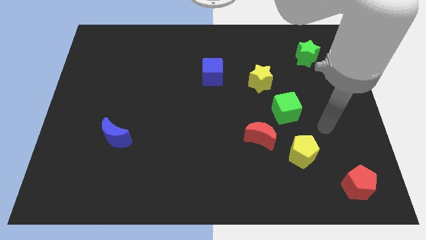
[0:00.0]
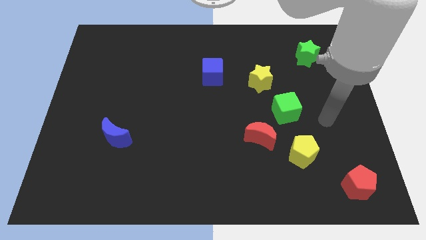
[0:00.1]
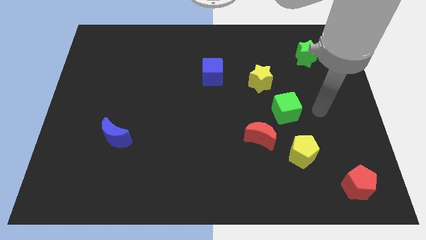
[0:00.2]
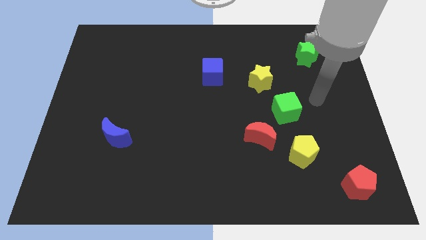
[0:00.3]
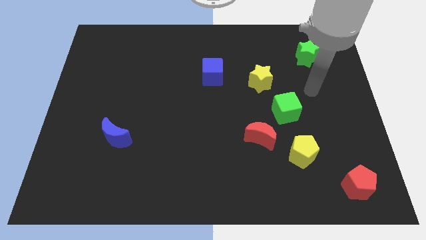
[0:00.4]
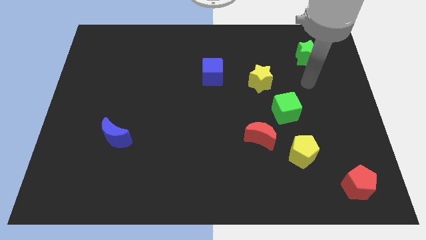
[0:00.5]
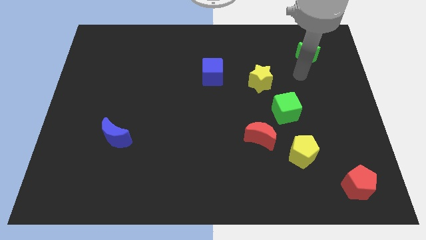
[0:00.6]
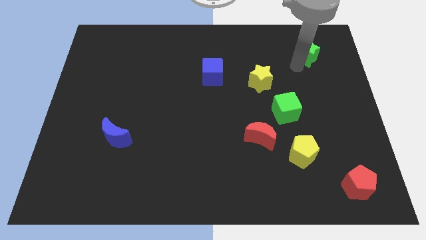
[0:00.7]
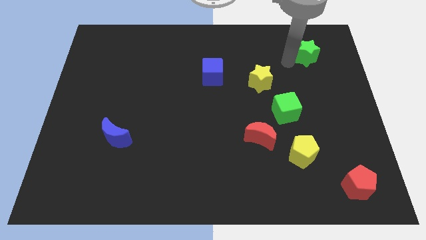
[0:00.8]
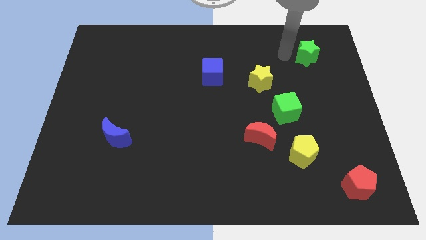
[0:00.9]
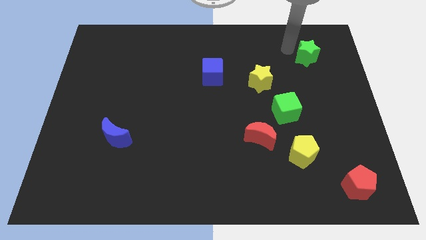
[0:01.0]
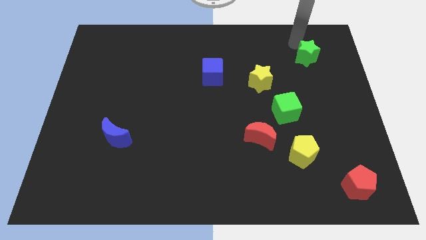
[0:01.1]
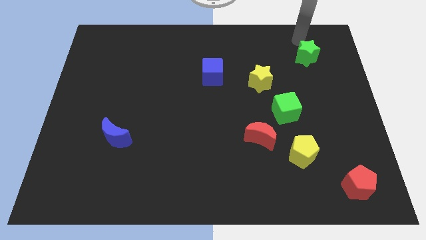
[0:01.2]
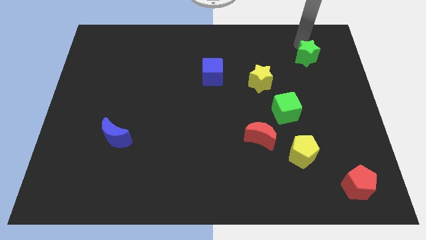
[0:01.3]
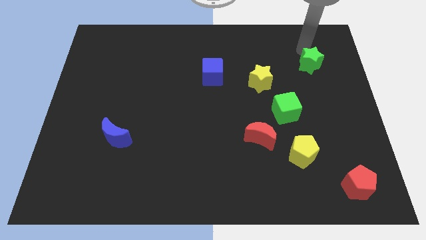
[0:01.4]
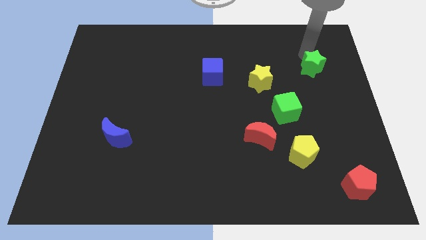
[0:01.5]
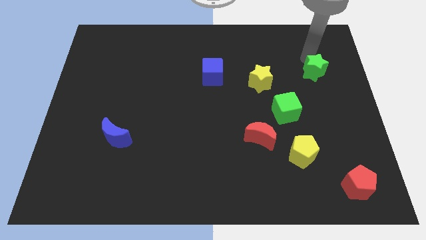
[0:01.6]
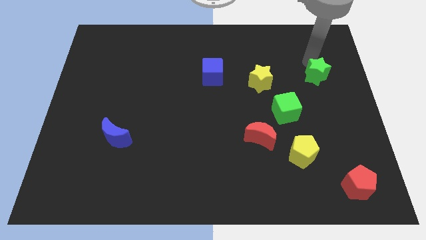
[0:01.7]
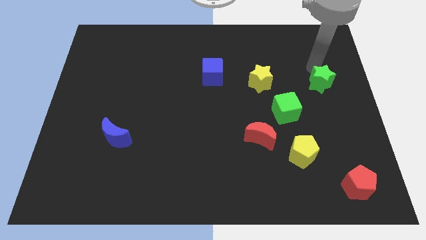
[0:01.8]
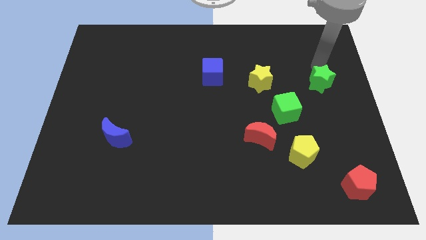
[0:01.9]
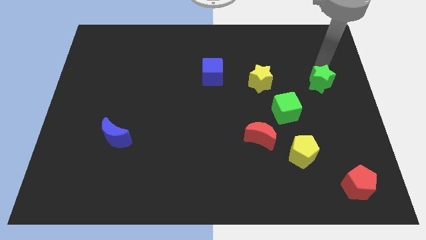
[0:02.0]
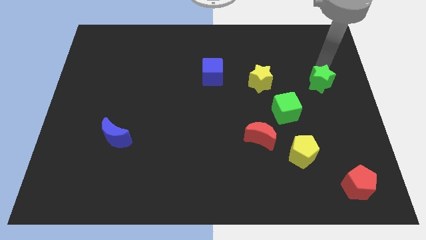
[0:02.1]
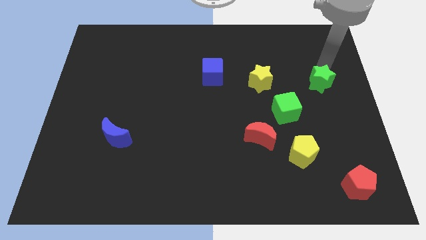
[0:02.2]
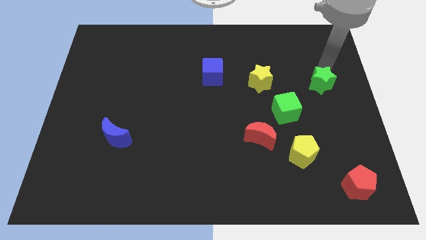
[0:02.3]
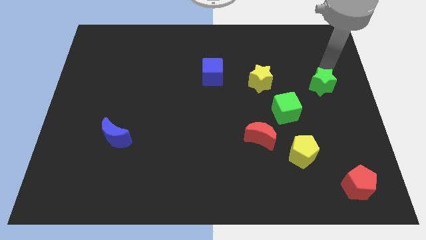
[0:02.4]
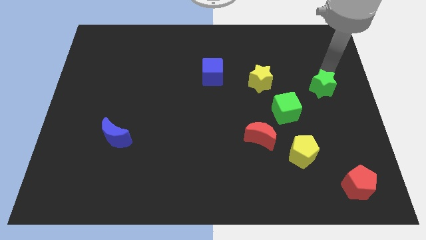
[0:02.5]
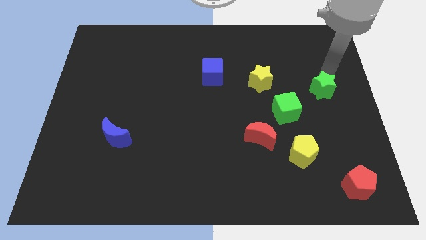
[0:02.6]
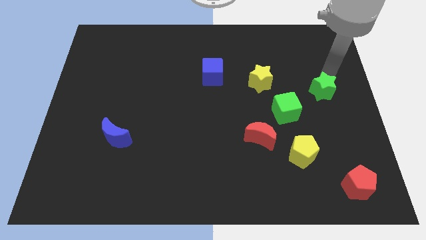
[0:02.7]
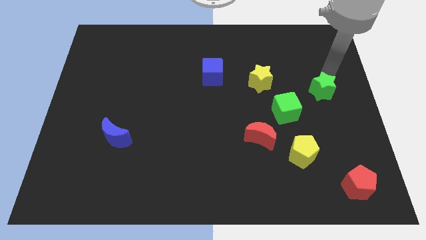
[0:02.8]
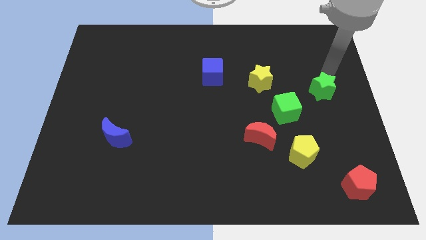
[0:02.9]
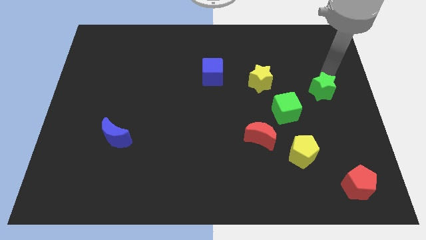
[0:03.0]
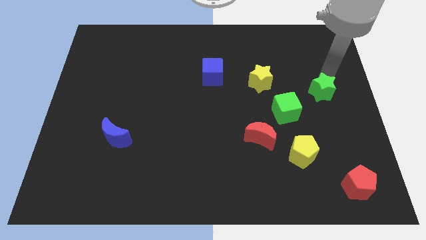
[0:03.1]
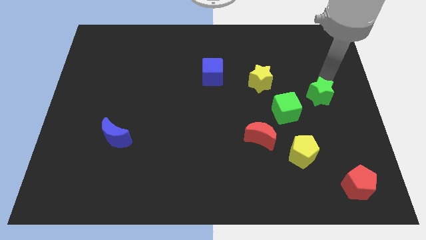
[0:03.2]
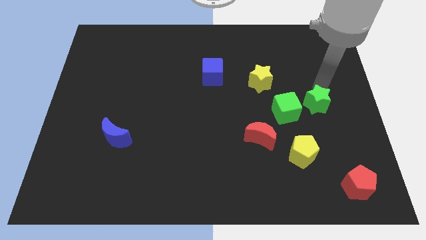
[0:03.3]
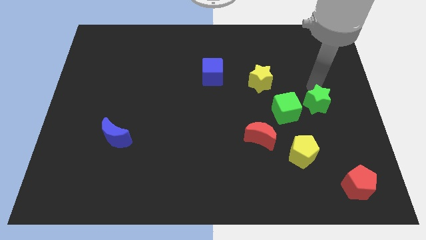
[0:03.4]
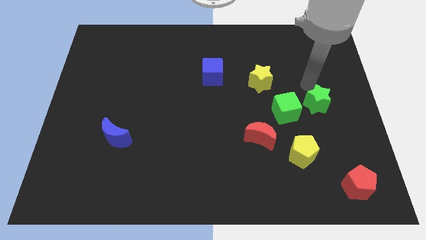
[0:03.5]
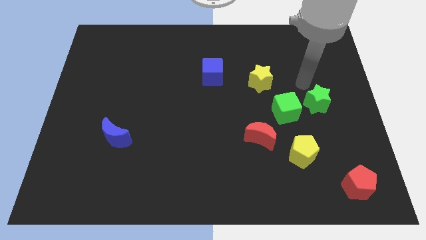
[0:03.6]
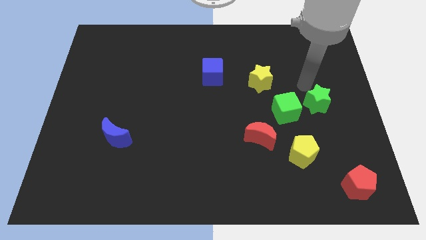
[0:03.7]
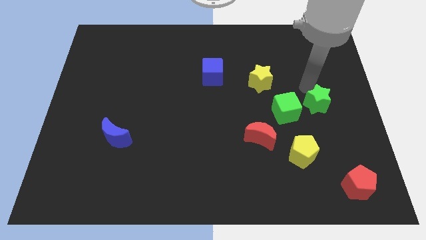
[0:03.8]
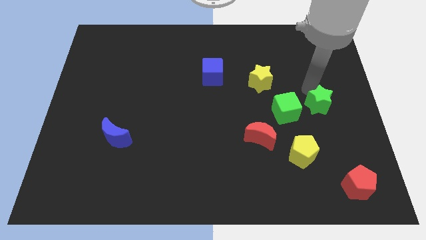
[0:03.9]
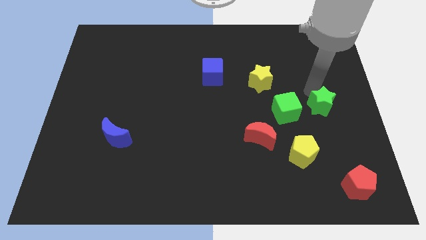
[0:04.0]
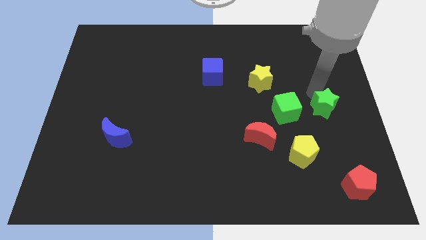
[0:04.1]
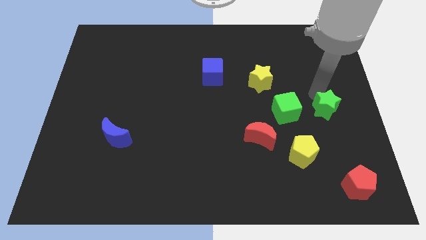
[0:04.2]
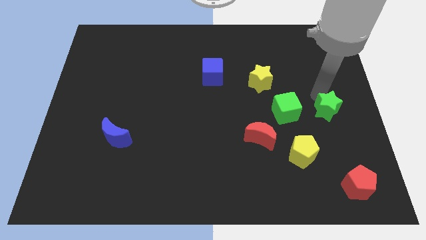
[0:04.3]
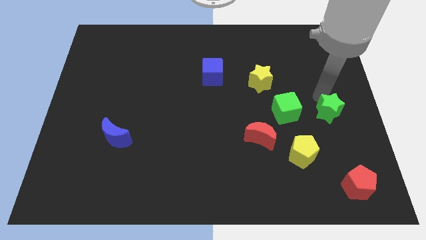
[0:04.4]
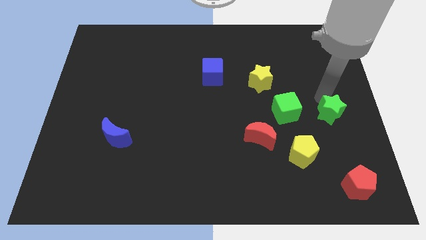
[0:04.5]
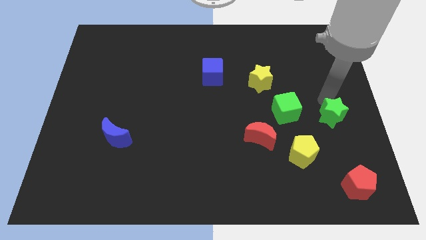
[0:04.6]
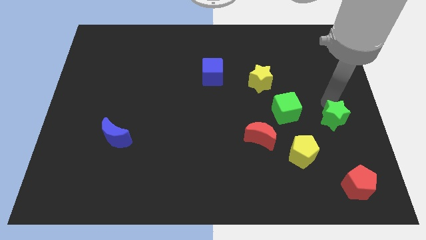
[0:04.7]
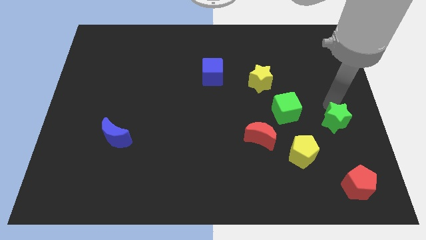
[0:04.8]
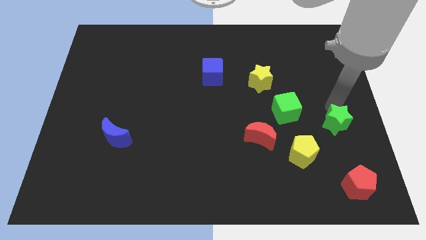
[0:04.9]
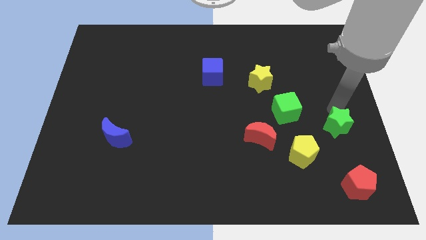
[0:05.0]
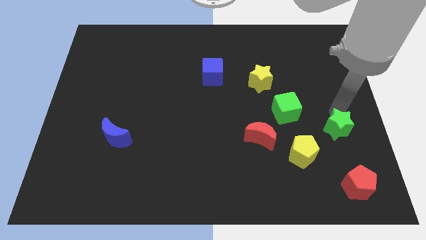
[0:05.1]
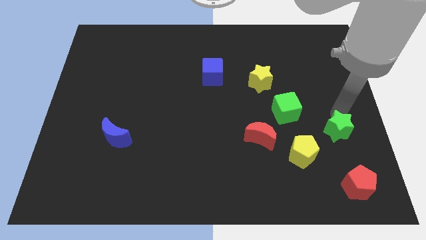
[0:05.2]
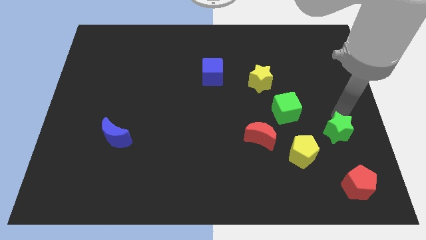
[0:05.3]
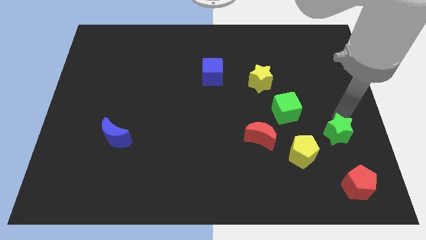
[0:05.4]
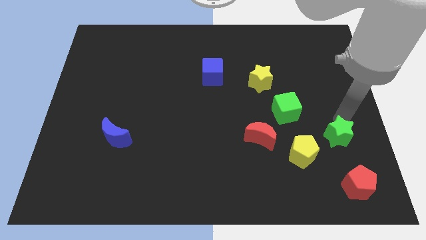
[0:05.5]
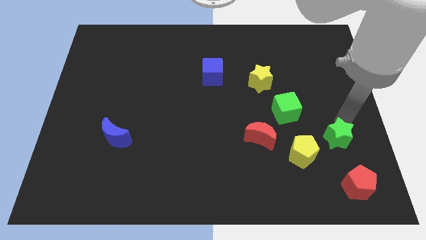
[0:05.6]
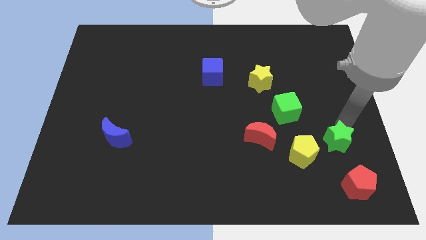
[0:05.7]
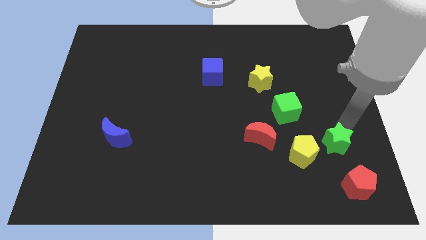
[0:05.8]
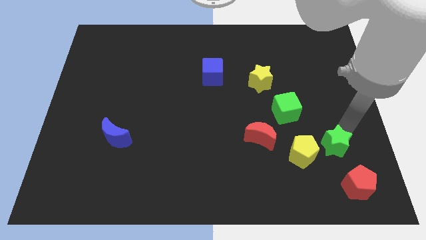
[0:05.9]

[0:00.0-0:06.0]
put the green star to the top left side of the red pentagon

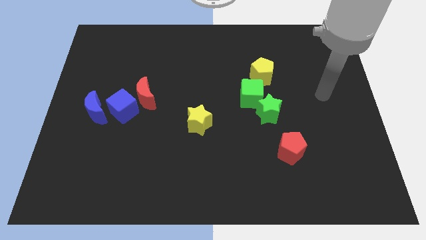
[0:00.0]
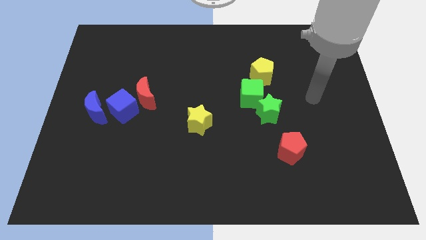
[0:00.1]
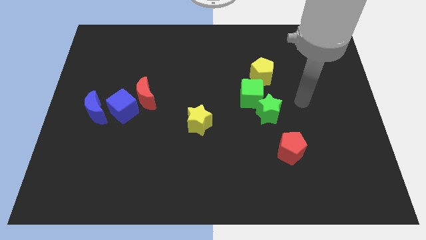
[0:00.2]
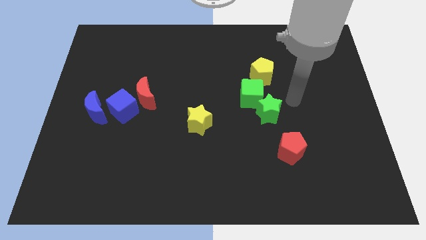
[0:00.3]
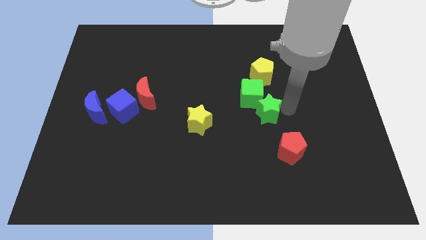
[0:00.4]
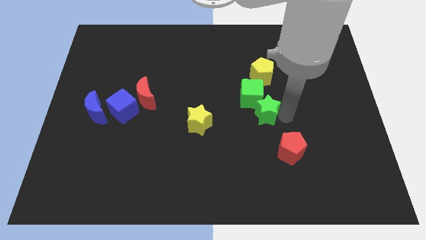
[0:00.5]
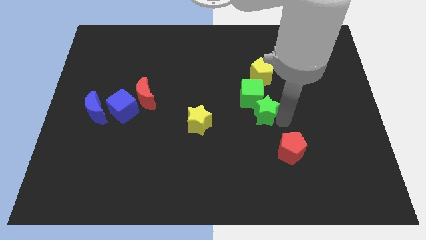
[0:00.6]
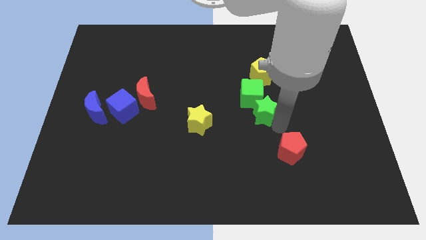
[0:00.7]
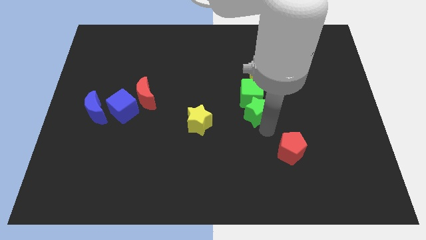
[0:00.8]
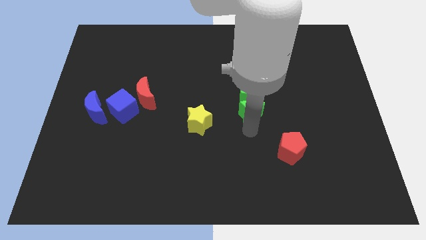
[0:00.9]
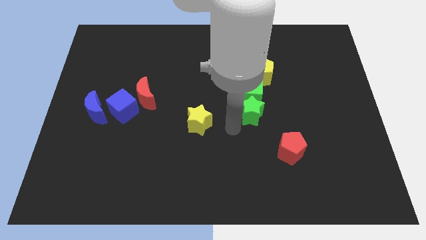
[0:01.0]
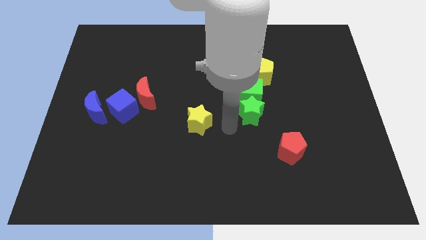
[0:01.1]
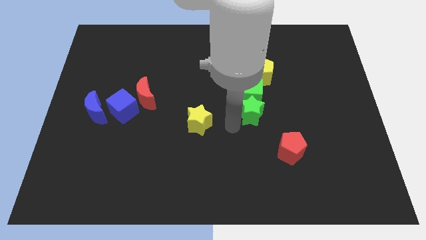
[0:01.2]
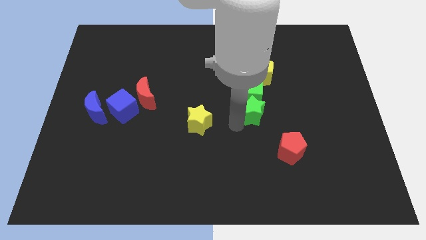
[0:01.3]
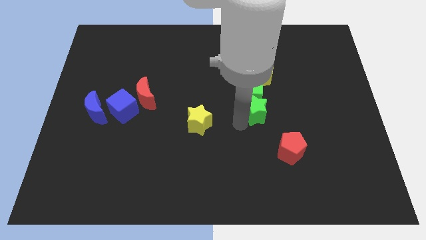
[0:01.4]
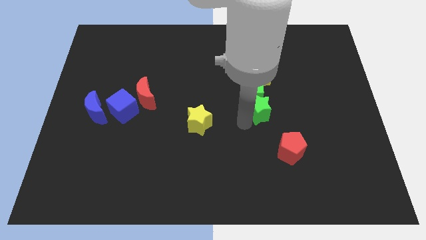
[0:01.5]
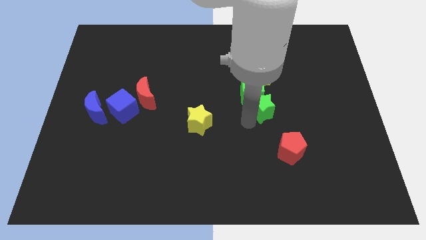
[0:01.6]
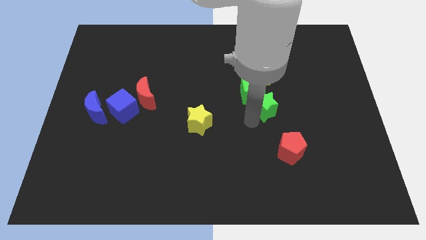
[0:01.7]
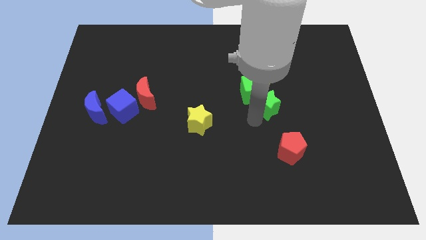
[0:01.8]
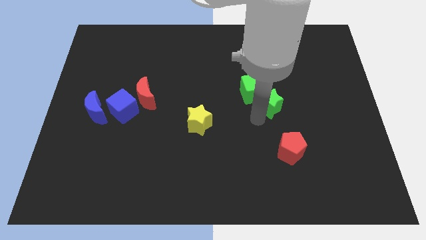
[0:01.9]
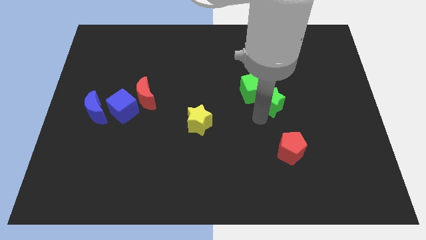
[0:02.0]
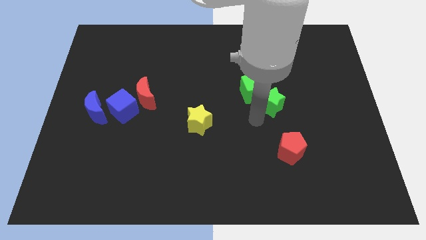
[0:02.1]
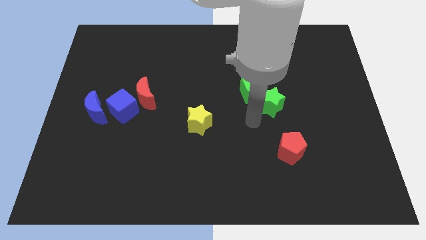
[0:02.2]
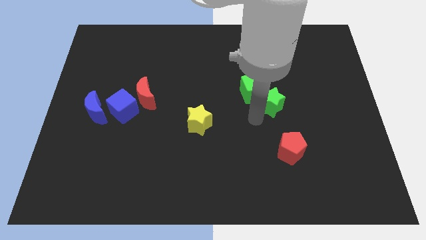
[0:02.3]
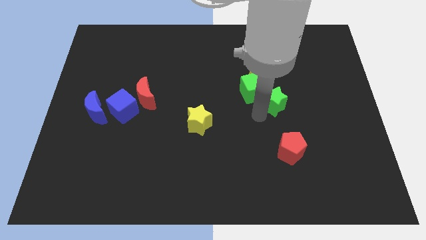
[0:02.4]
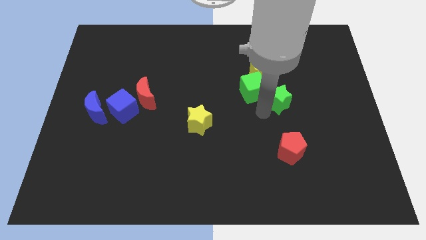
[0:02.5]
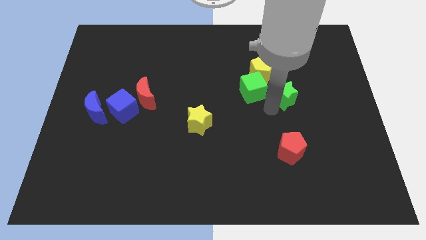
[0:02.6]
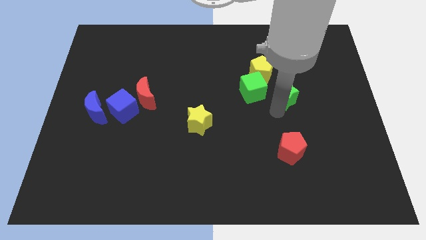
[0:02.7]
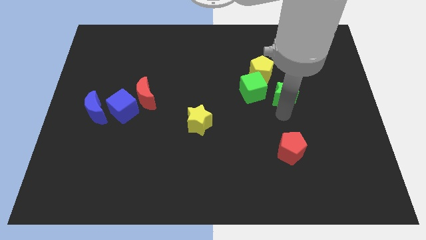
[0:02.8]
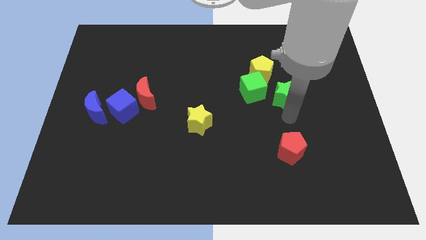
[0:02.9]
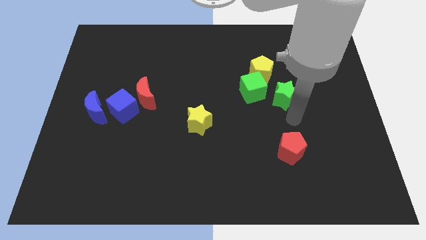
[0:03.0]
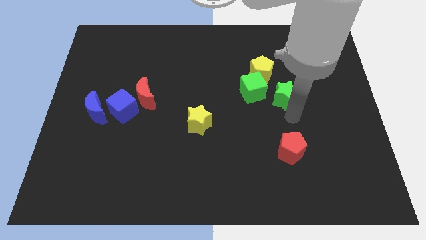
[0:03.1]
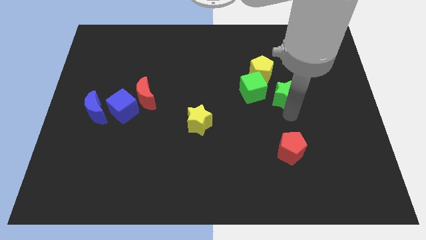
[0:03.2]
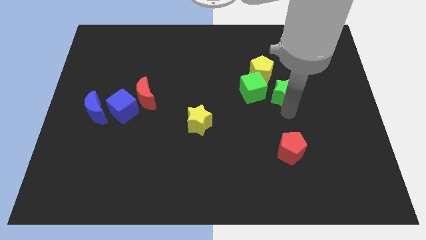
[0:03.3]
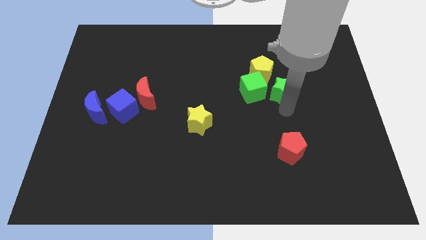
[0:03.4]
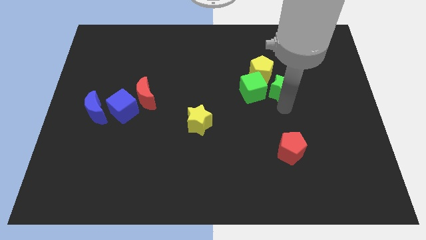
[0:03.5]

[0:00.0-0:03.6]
slide the green star to the top right of the green cube
